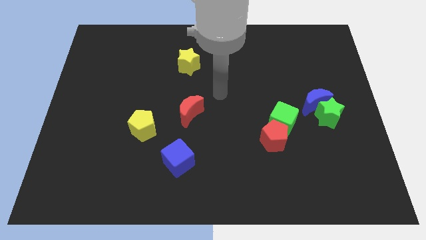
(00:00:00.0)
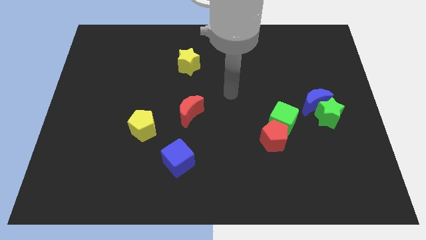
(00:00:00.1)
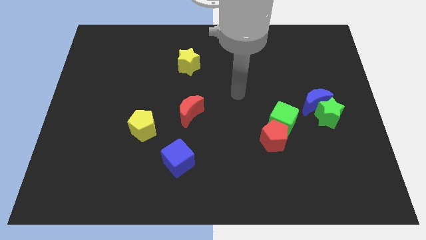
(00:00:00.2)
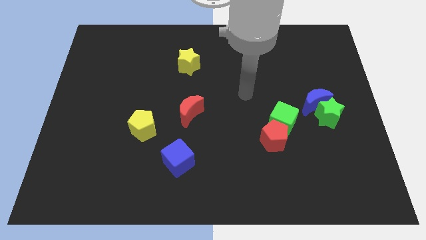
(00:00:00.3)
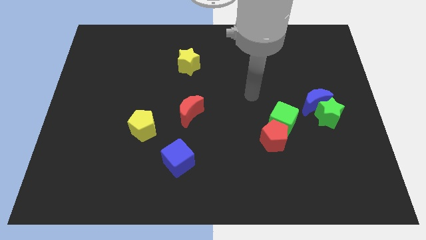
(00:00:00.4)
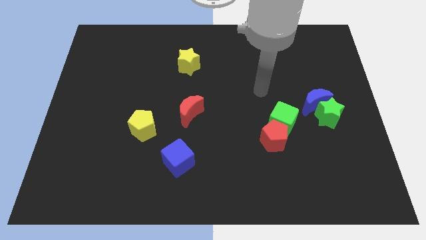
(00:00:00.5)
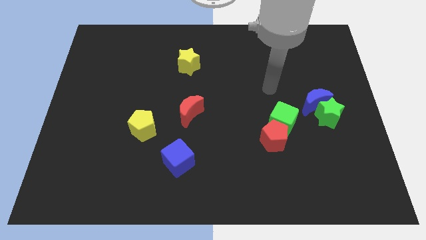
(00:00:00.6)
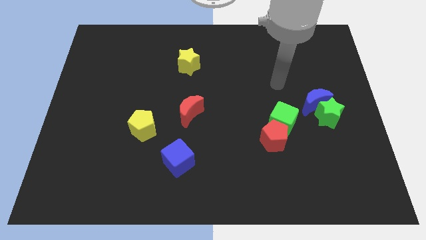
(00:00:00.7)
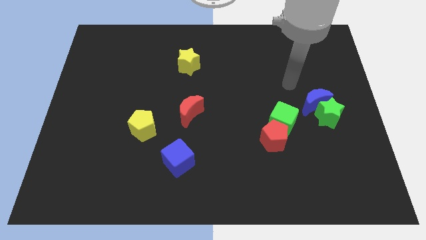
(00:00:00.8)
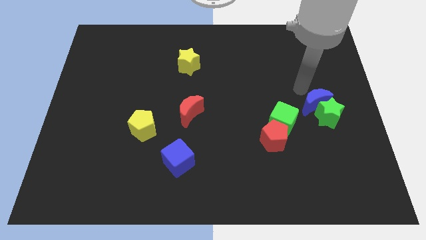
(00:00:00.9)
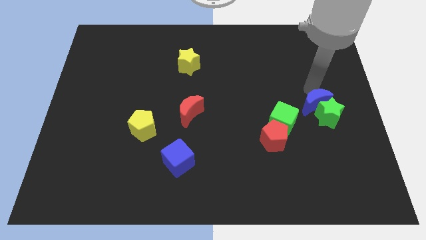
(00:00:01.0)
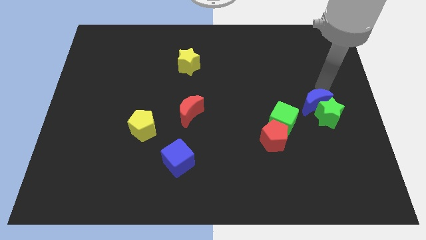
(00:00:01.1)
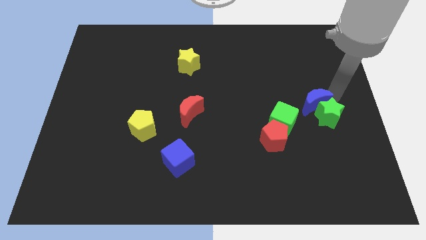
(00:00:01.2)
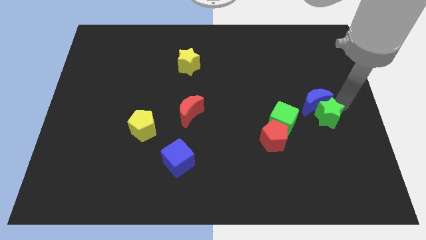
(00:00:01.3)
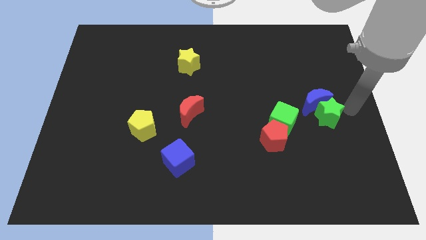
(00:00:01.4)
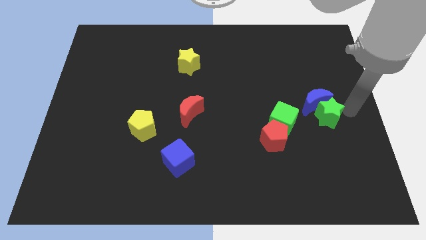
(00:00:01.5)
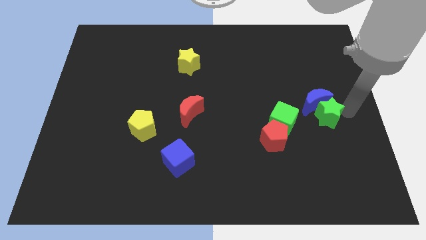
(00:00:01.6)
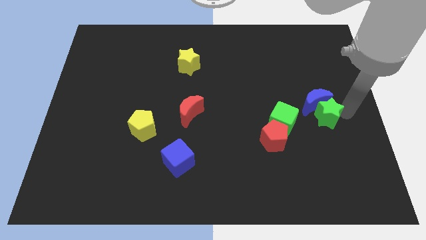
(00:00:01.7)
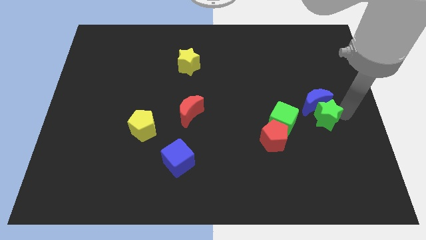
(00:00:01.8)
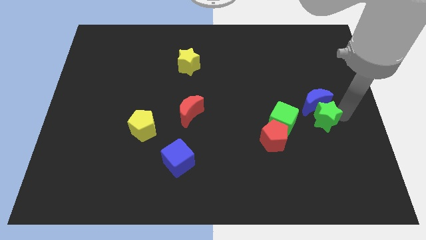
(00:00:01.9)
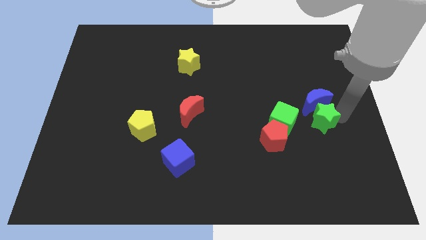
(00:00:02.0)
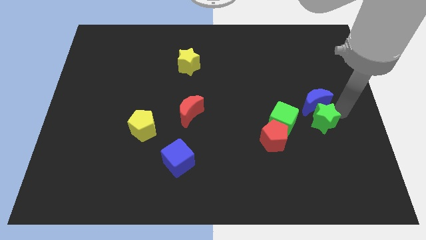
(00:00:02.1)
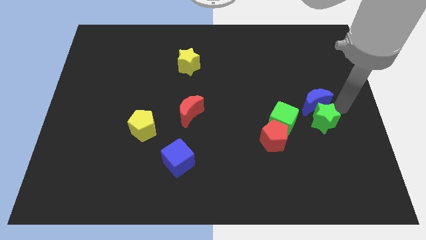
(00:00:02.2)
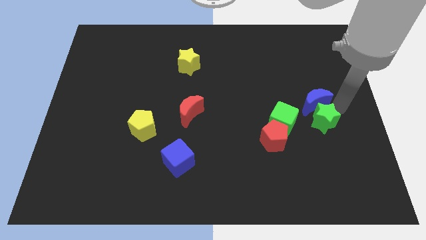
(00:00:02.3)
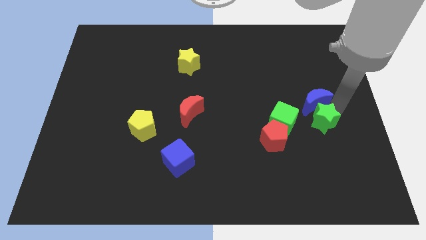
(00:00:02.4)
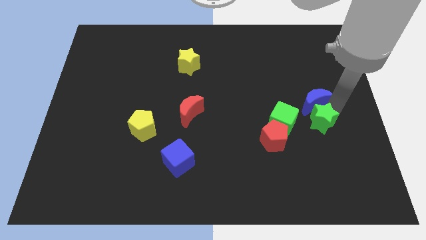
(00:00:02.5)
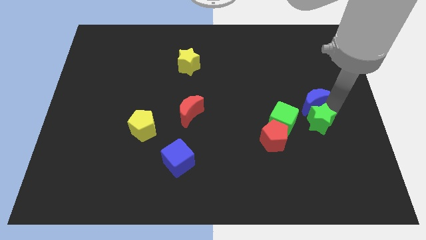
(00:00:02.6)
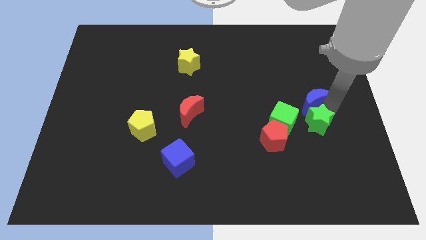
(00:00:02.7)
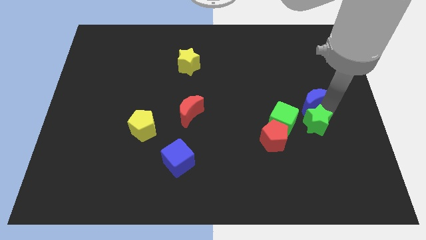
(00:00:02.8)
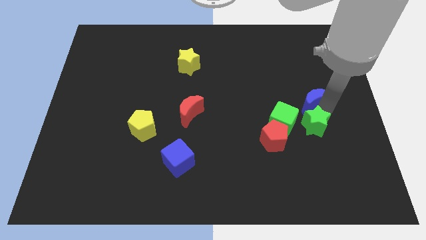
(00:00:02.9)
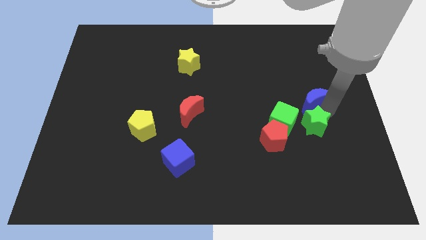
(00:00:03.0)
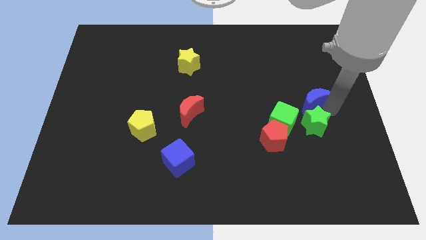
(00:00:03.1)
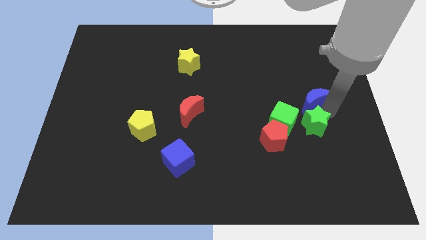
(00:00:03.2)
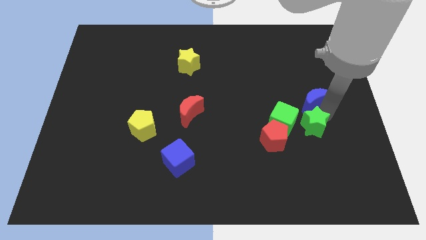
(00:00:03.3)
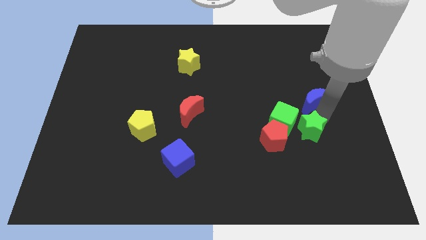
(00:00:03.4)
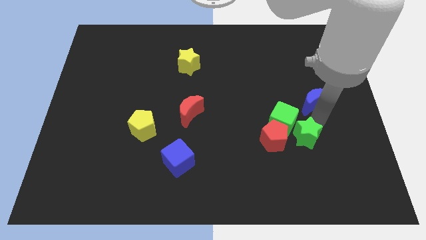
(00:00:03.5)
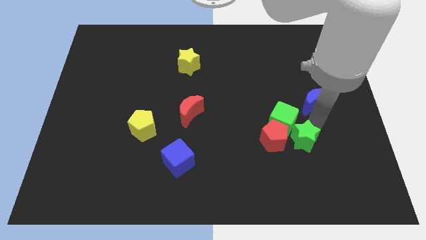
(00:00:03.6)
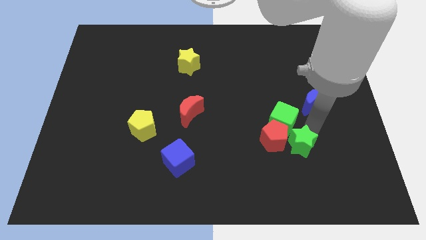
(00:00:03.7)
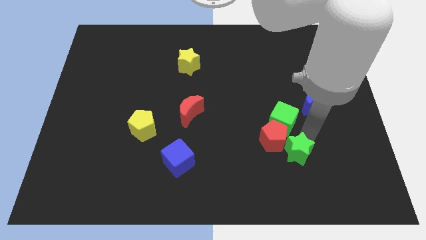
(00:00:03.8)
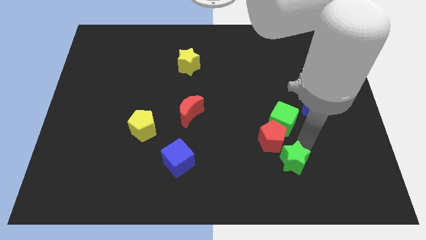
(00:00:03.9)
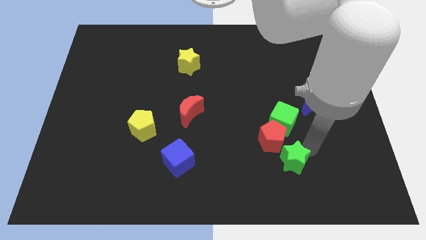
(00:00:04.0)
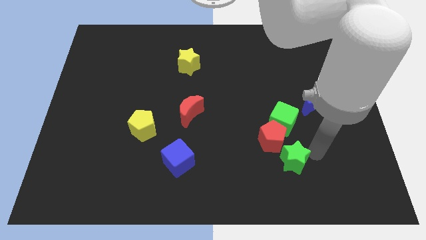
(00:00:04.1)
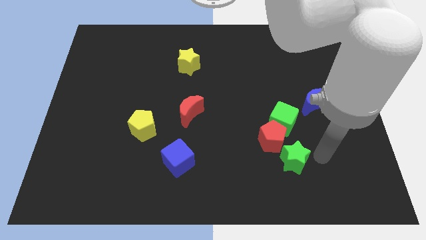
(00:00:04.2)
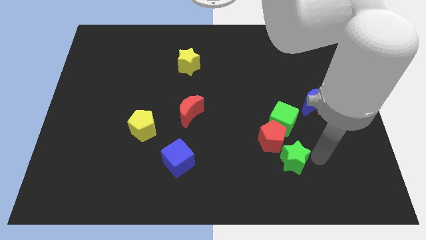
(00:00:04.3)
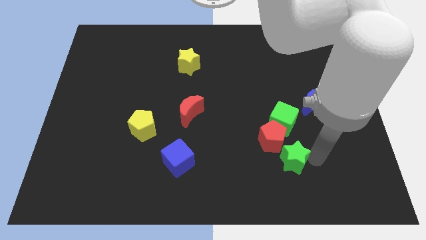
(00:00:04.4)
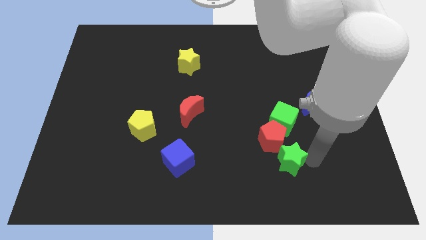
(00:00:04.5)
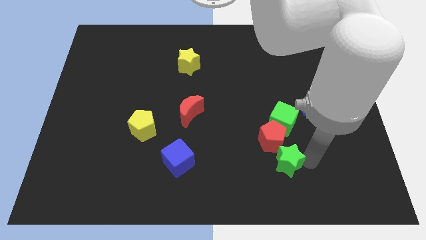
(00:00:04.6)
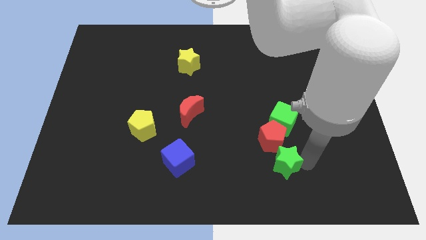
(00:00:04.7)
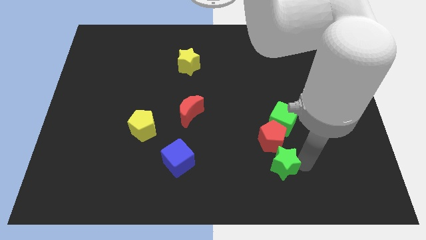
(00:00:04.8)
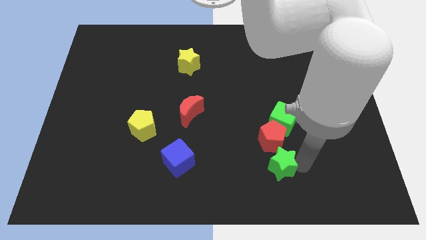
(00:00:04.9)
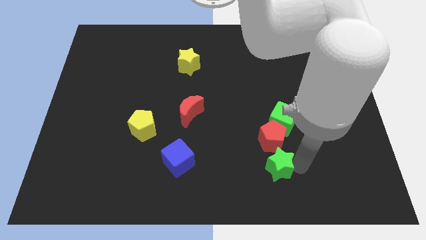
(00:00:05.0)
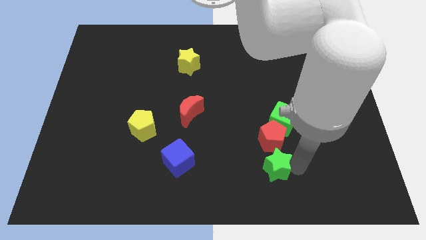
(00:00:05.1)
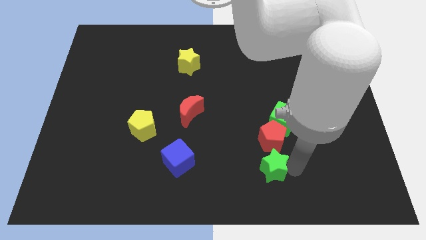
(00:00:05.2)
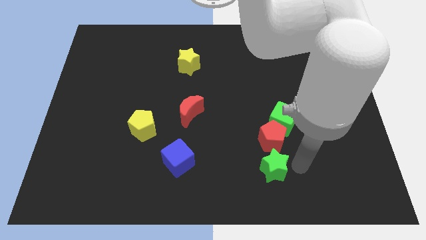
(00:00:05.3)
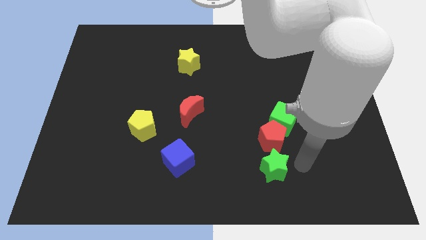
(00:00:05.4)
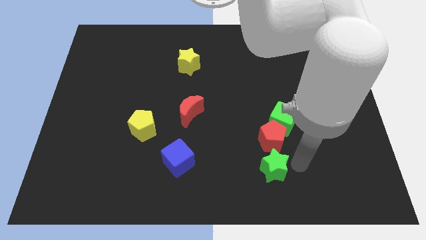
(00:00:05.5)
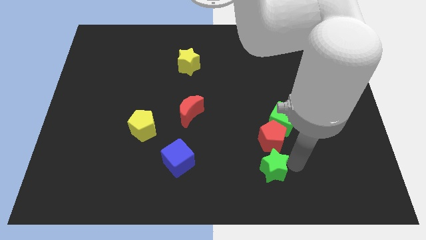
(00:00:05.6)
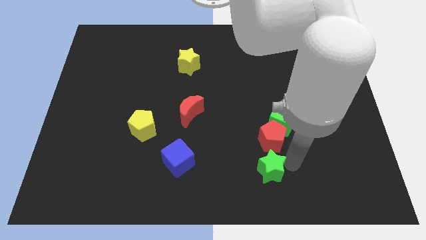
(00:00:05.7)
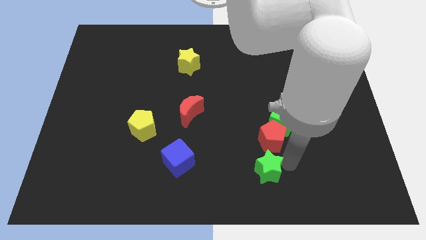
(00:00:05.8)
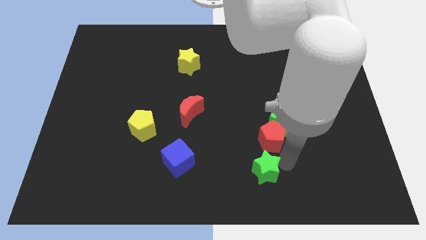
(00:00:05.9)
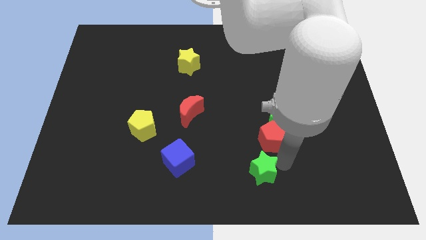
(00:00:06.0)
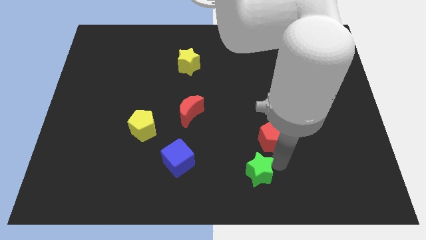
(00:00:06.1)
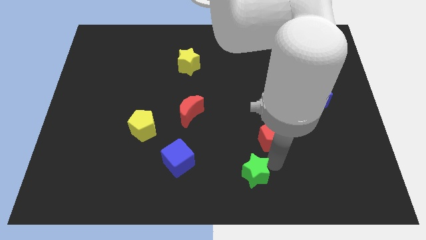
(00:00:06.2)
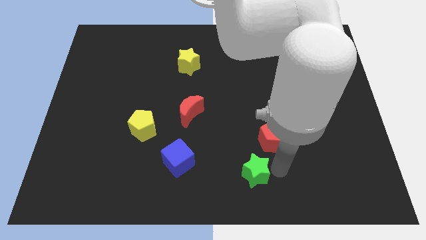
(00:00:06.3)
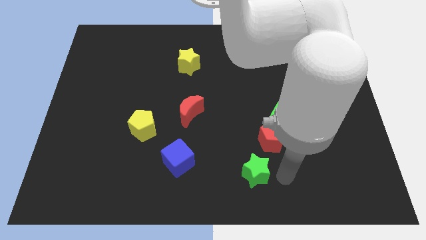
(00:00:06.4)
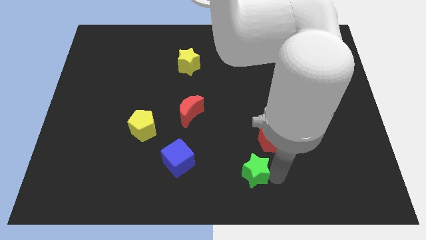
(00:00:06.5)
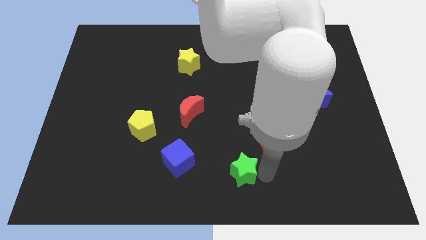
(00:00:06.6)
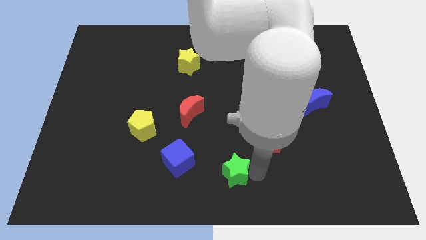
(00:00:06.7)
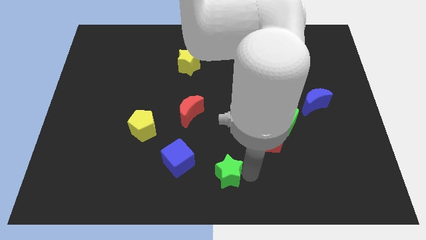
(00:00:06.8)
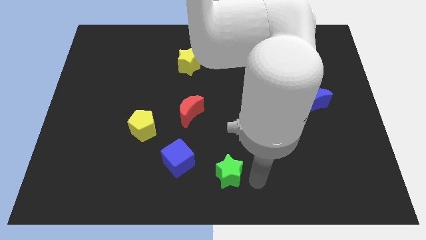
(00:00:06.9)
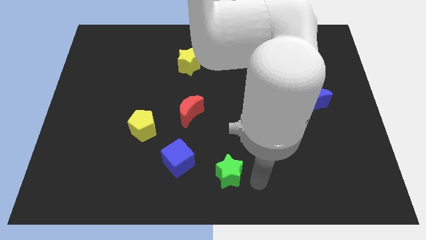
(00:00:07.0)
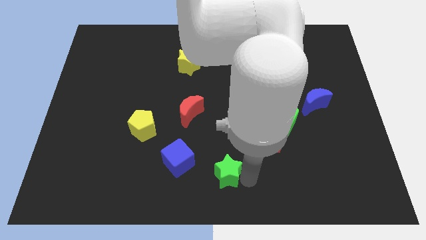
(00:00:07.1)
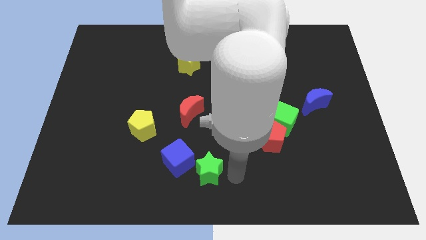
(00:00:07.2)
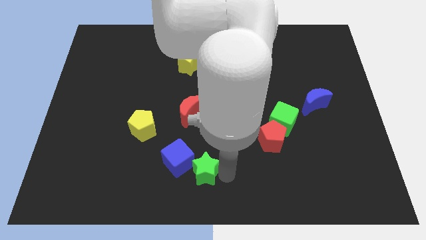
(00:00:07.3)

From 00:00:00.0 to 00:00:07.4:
put the green star close to the blue cube
